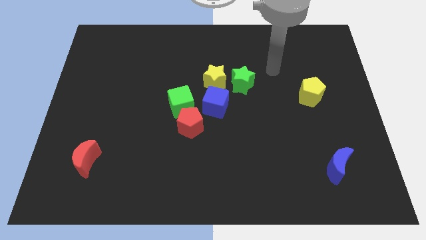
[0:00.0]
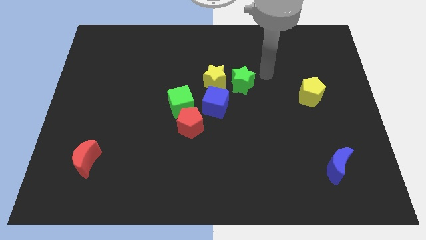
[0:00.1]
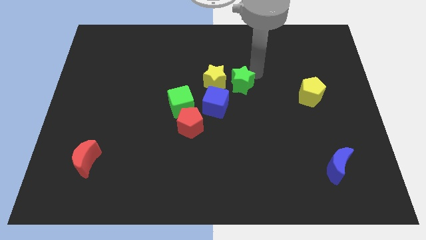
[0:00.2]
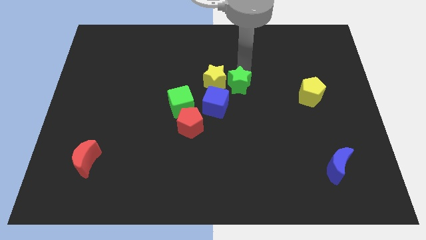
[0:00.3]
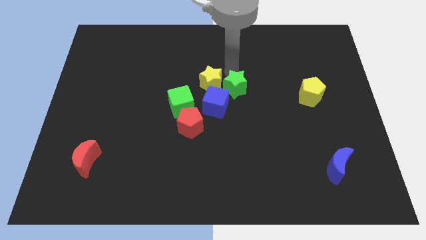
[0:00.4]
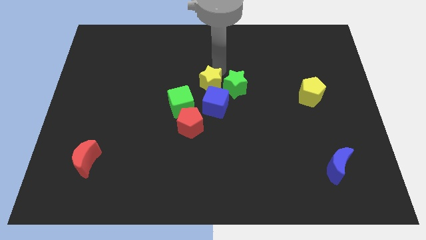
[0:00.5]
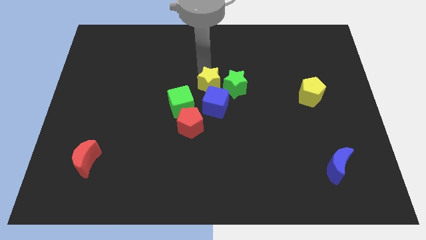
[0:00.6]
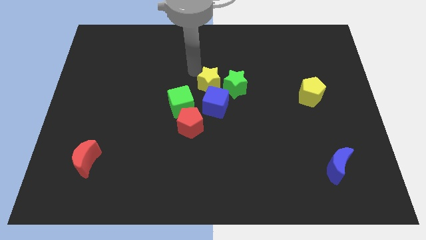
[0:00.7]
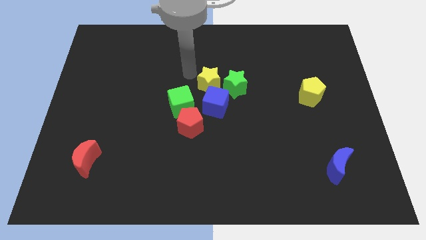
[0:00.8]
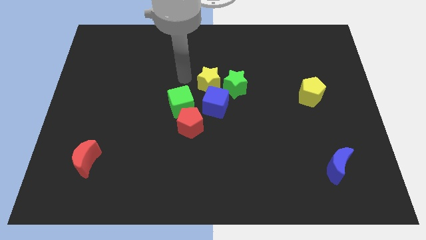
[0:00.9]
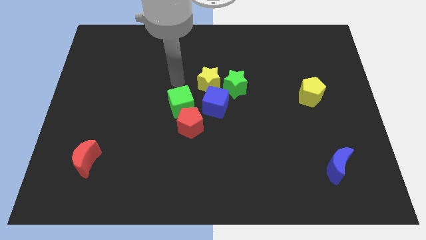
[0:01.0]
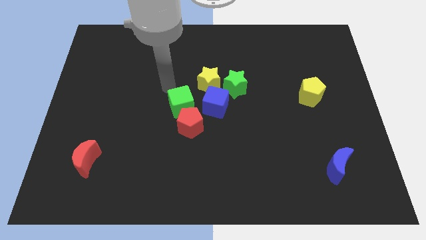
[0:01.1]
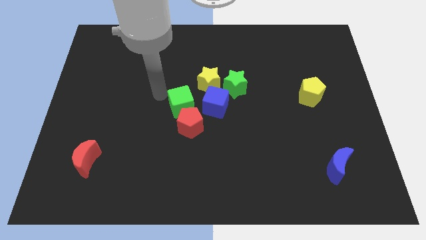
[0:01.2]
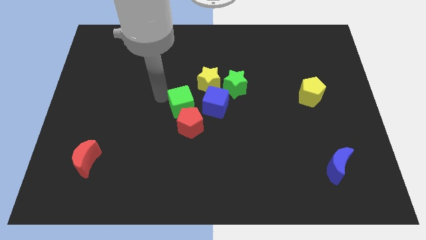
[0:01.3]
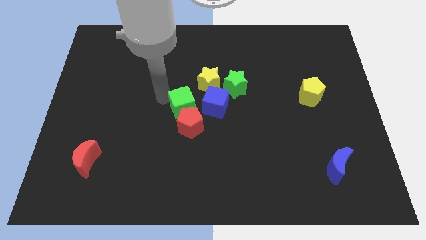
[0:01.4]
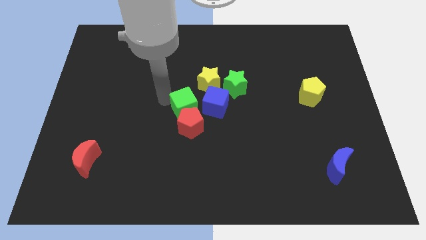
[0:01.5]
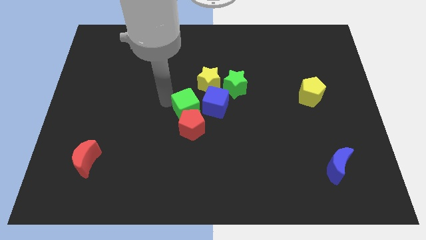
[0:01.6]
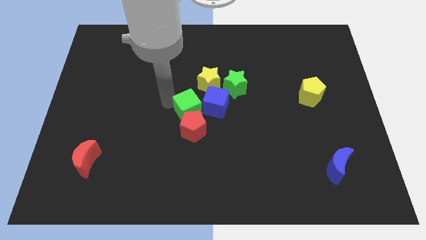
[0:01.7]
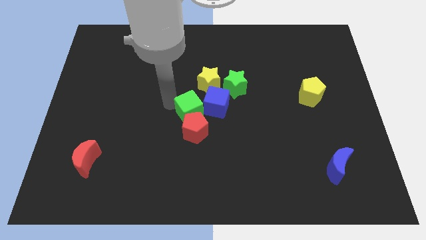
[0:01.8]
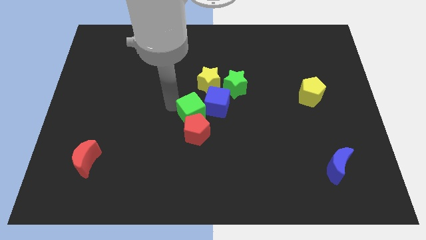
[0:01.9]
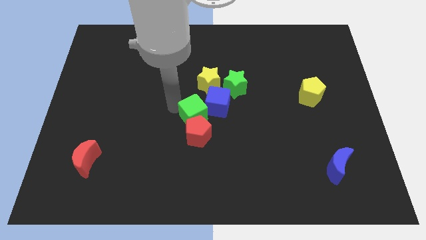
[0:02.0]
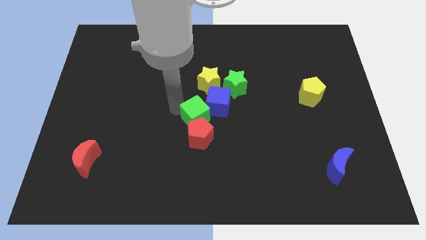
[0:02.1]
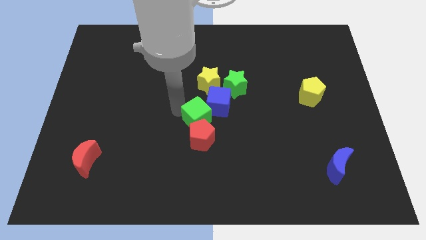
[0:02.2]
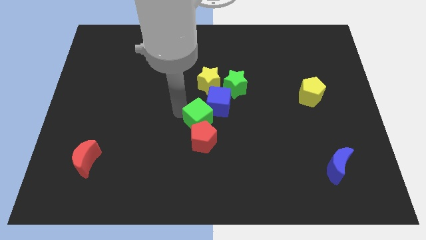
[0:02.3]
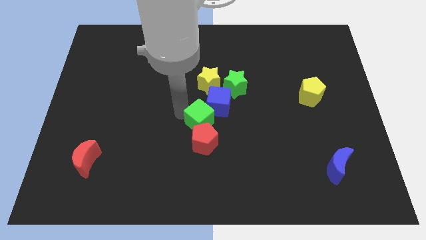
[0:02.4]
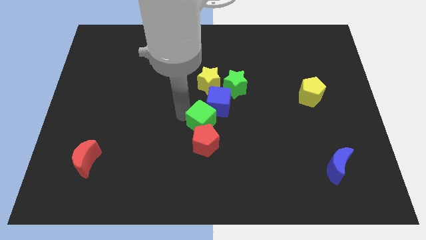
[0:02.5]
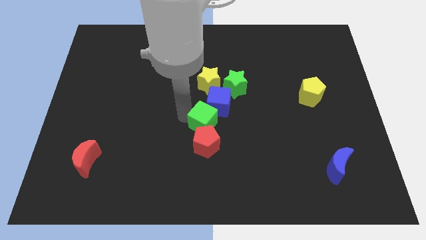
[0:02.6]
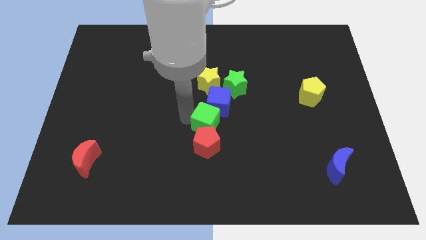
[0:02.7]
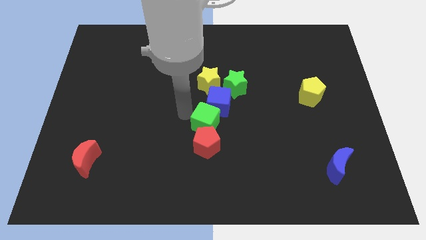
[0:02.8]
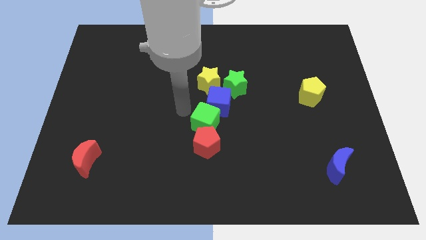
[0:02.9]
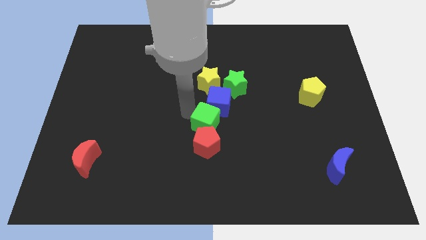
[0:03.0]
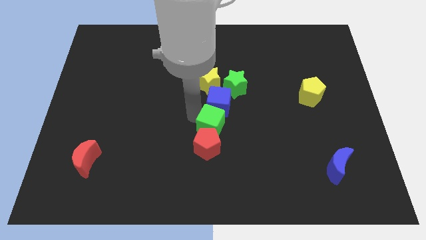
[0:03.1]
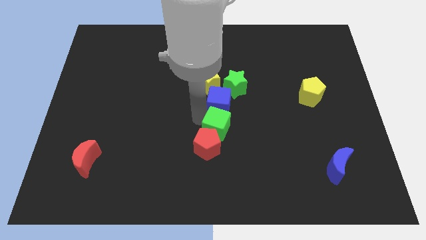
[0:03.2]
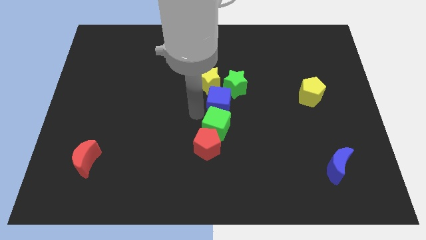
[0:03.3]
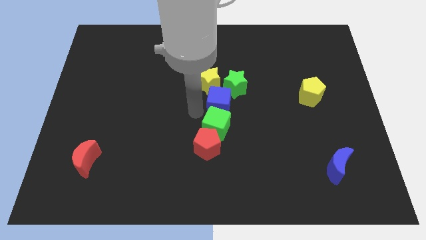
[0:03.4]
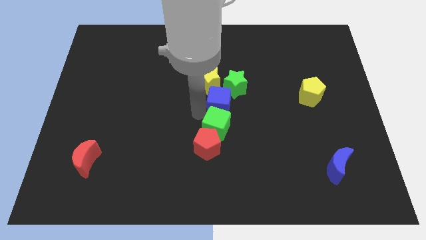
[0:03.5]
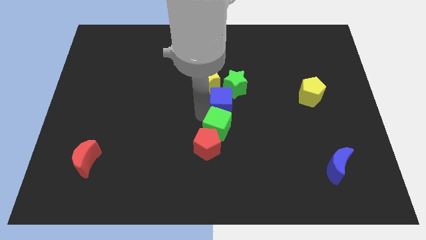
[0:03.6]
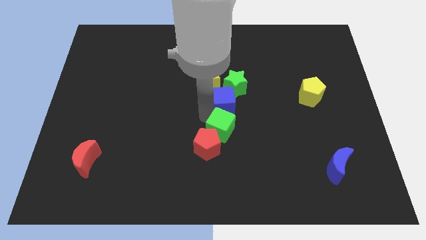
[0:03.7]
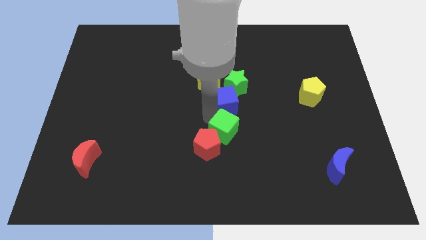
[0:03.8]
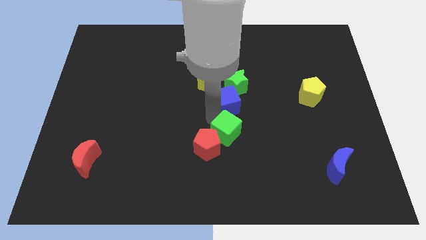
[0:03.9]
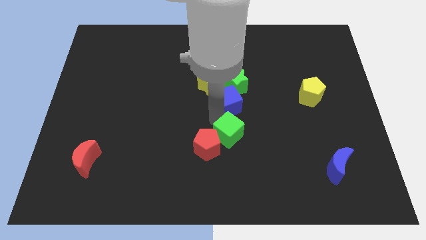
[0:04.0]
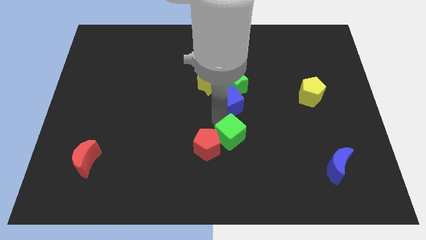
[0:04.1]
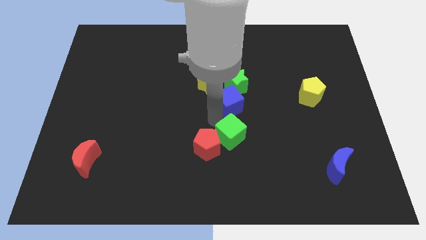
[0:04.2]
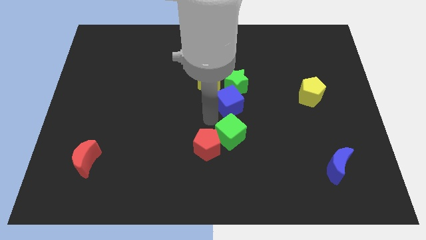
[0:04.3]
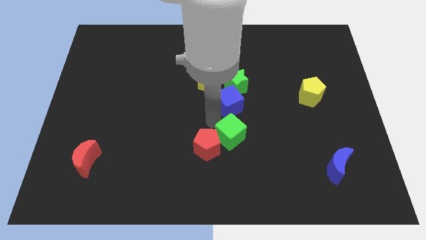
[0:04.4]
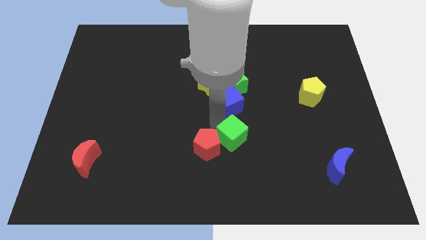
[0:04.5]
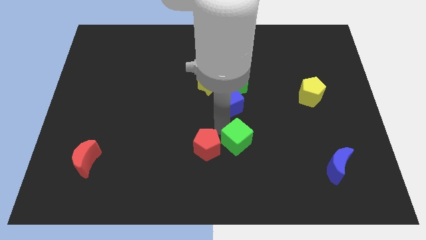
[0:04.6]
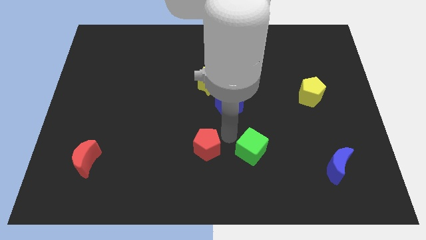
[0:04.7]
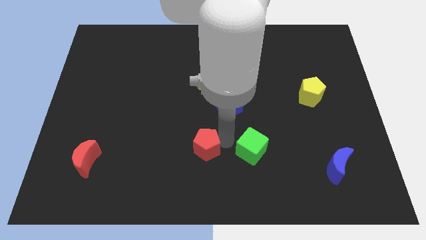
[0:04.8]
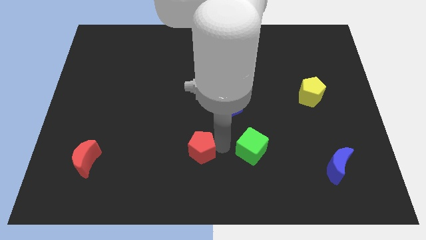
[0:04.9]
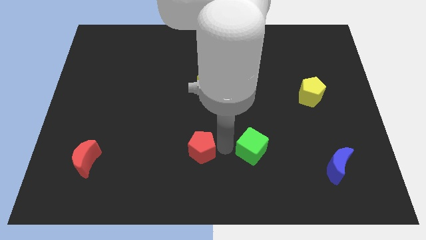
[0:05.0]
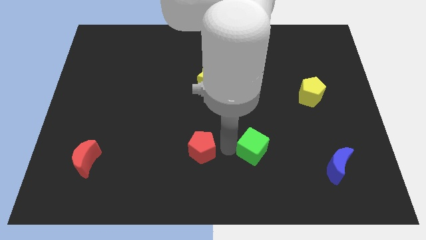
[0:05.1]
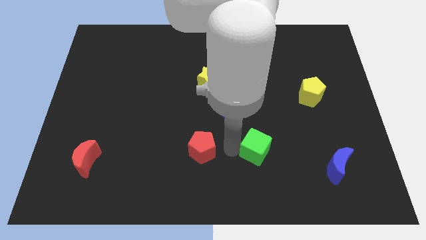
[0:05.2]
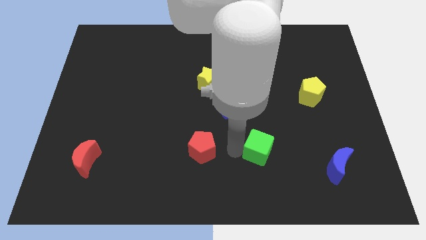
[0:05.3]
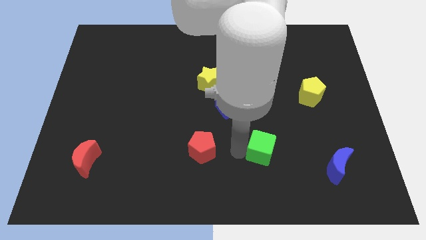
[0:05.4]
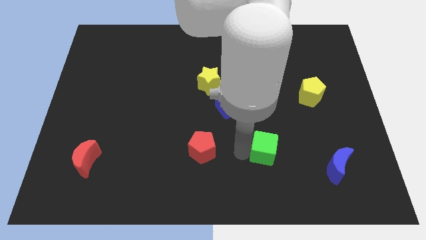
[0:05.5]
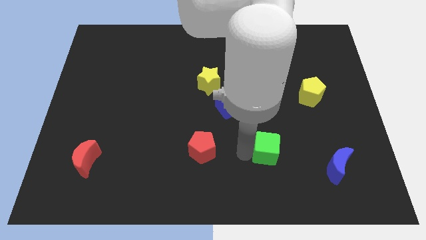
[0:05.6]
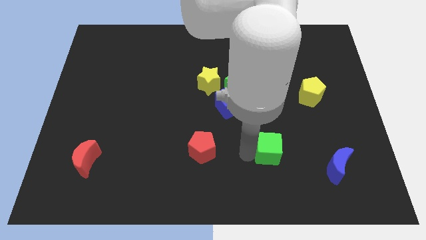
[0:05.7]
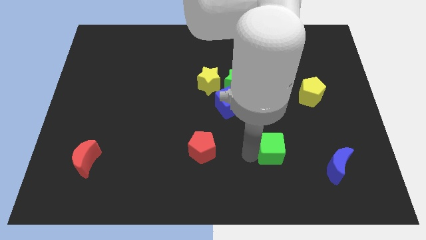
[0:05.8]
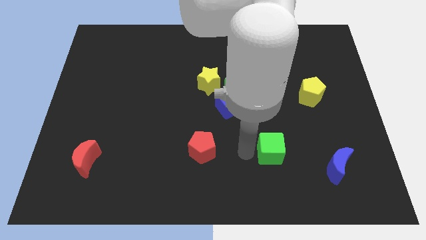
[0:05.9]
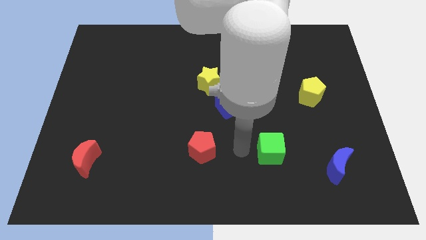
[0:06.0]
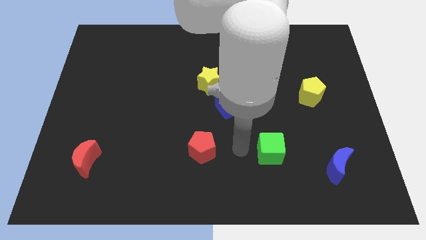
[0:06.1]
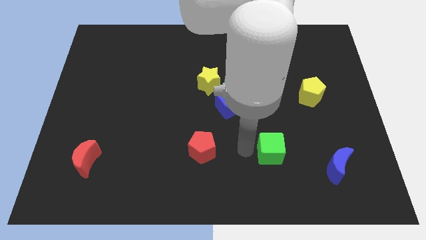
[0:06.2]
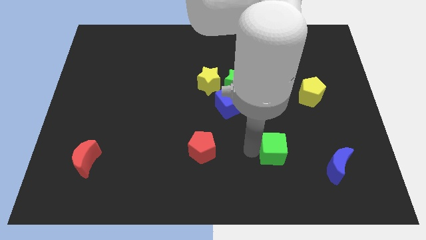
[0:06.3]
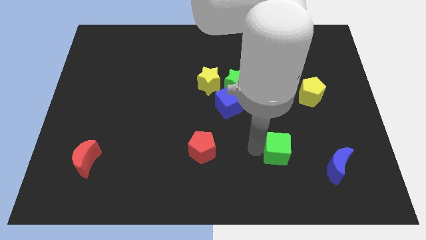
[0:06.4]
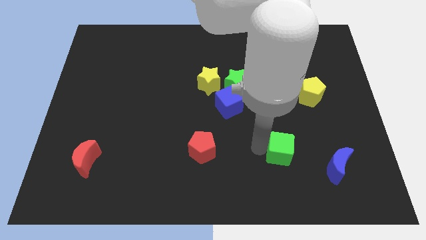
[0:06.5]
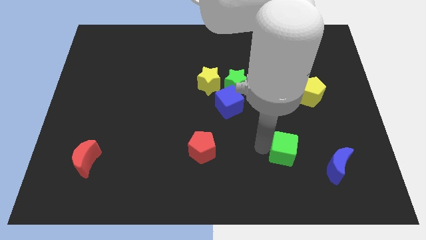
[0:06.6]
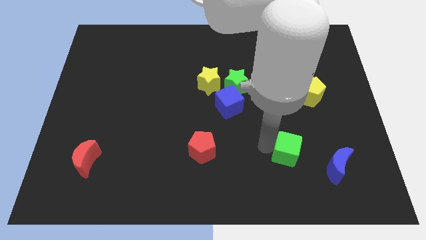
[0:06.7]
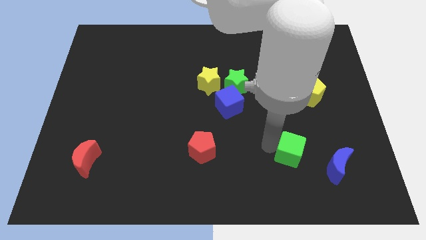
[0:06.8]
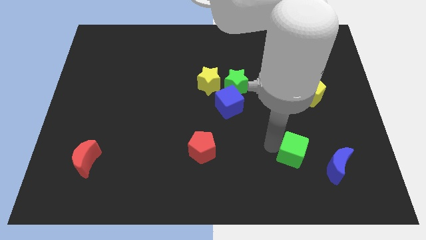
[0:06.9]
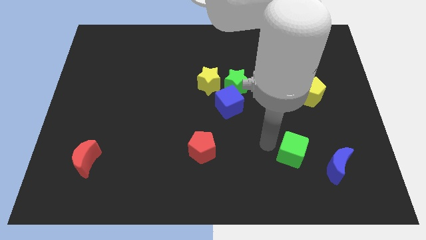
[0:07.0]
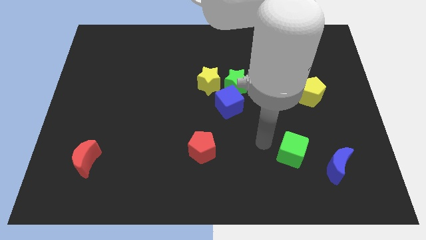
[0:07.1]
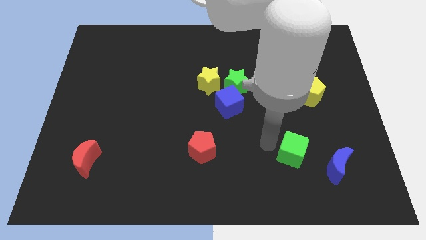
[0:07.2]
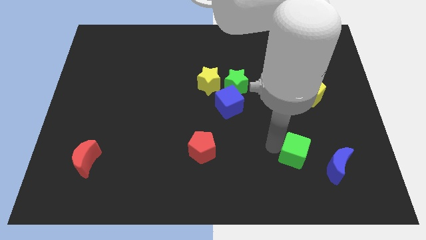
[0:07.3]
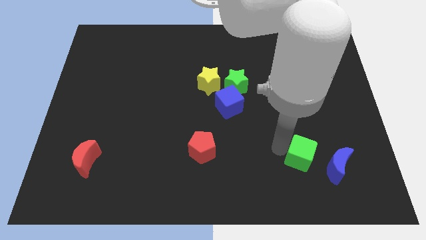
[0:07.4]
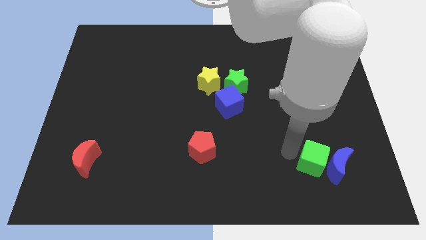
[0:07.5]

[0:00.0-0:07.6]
slide the green cube close to the blue moon
